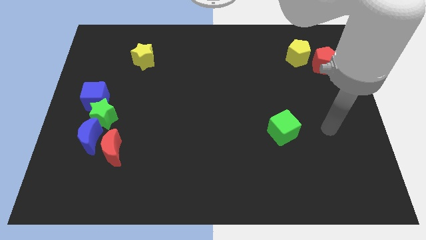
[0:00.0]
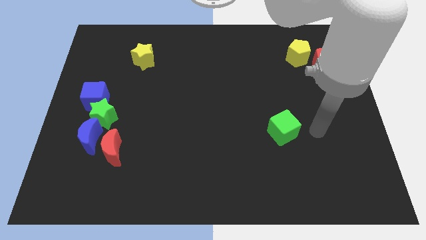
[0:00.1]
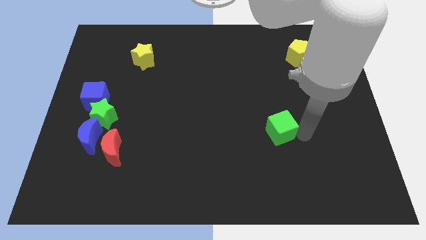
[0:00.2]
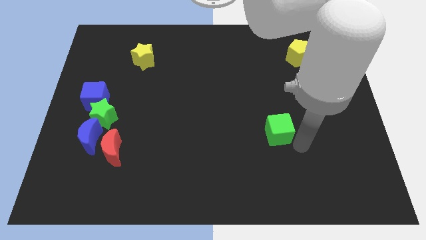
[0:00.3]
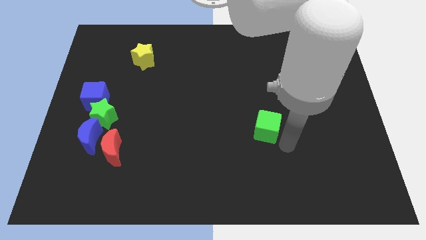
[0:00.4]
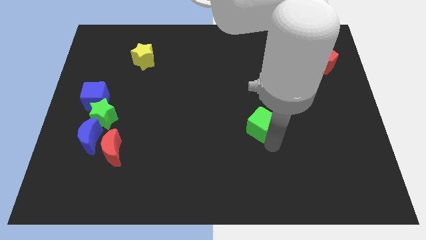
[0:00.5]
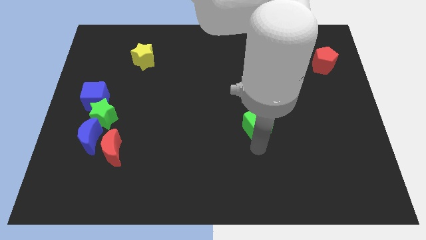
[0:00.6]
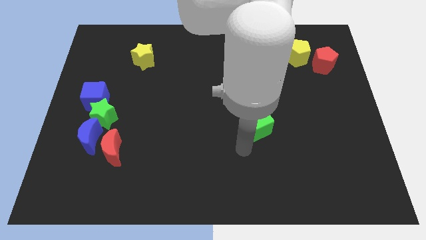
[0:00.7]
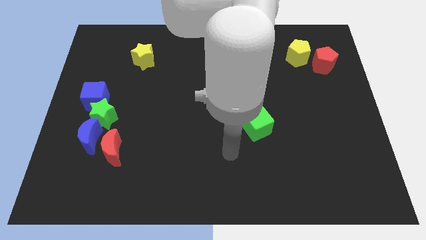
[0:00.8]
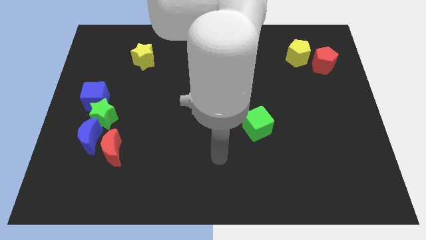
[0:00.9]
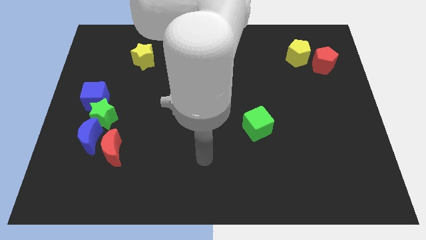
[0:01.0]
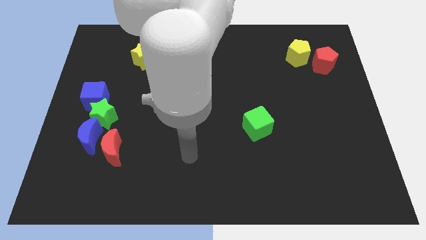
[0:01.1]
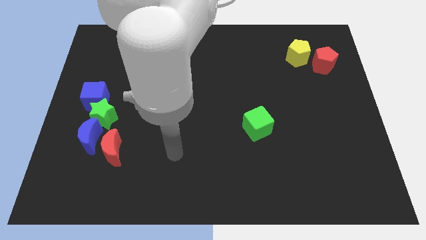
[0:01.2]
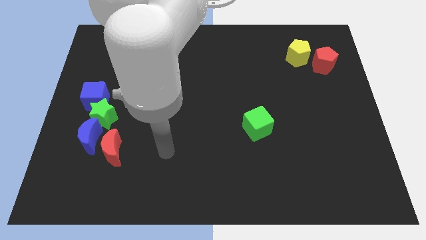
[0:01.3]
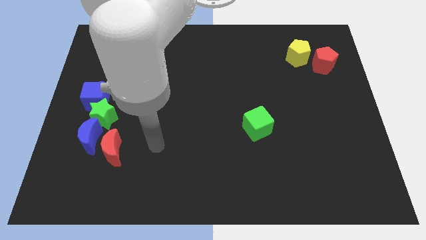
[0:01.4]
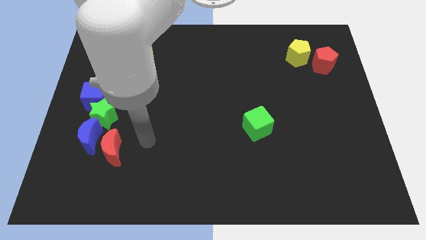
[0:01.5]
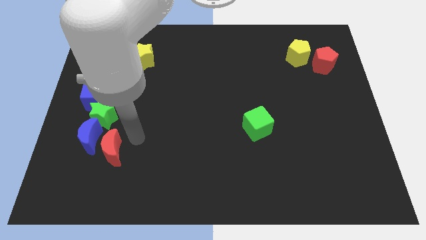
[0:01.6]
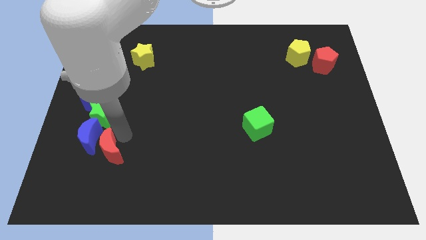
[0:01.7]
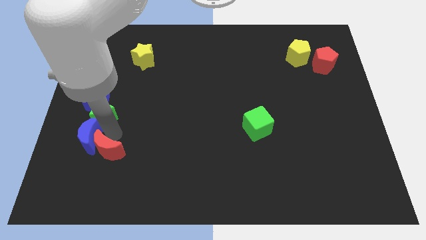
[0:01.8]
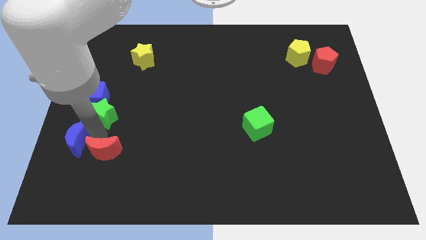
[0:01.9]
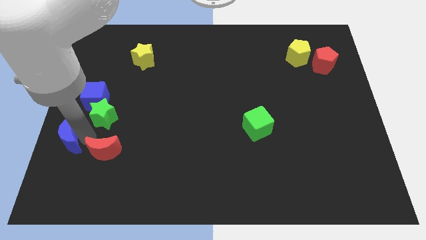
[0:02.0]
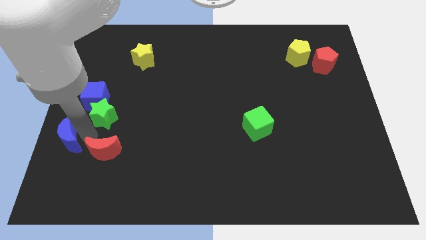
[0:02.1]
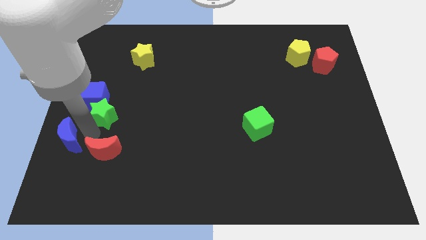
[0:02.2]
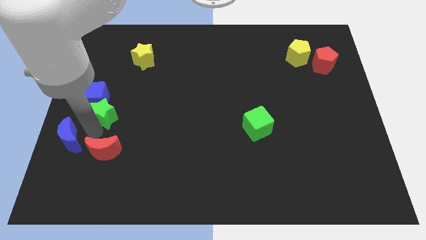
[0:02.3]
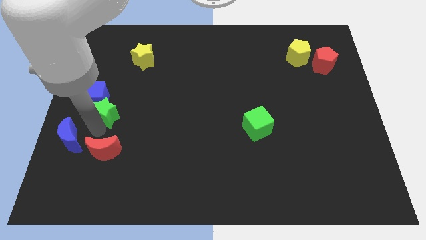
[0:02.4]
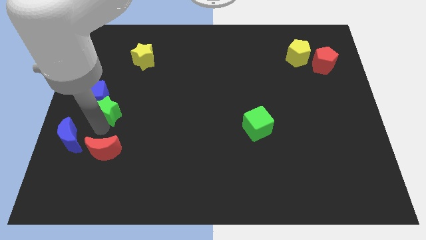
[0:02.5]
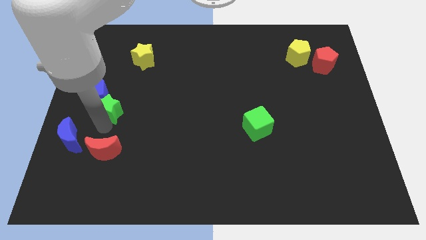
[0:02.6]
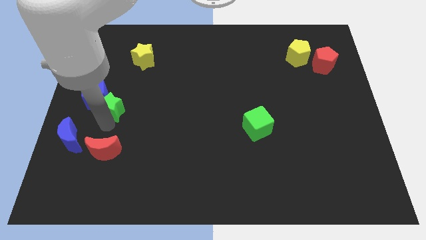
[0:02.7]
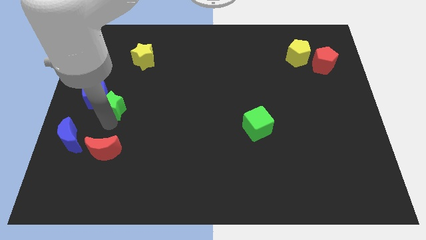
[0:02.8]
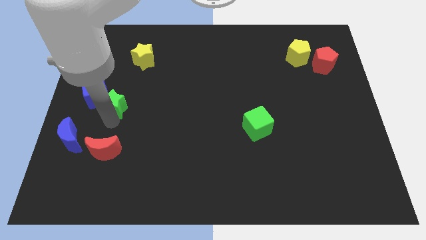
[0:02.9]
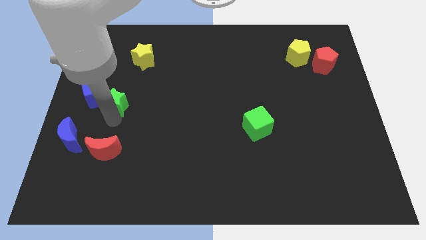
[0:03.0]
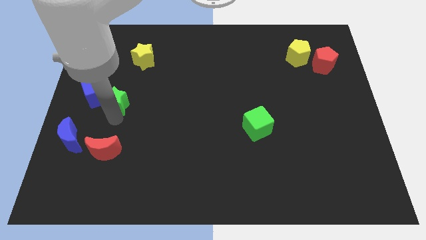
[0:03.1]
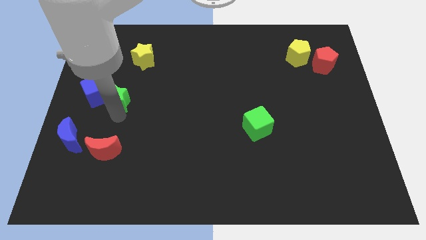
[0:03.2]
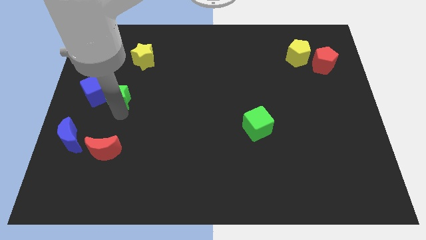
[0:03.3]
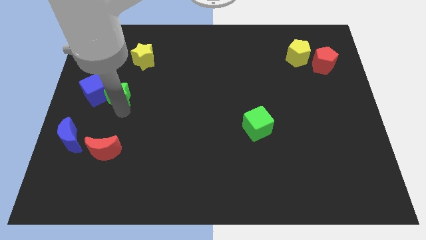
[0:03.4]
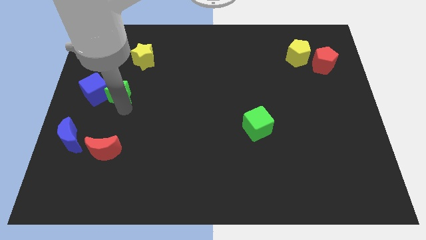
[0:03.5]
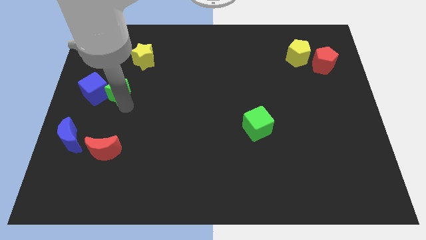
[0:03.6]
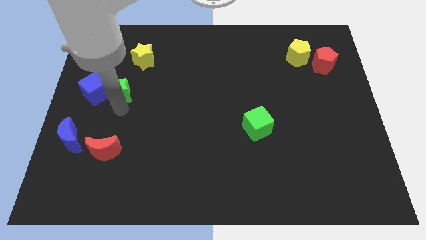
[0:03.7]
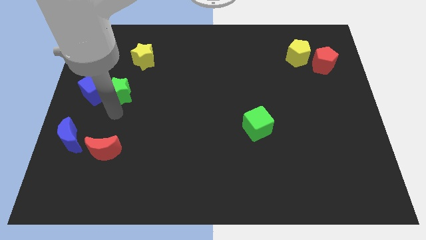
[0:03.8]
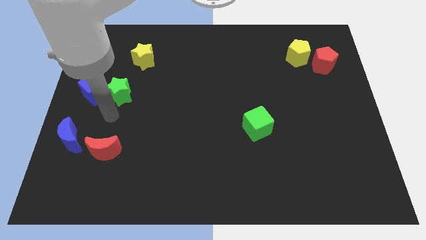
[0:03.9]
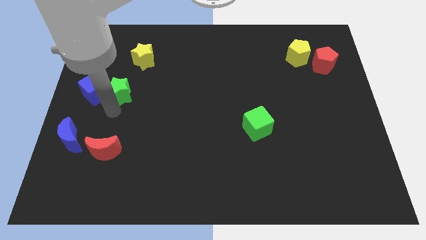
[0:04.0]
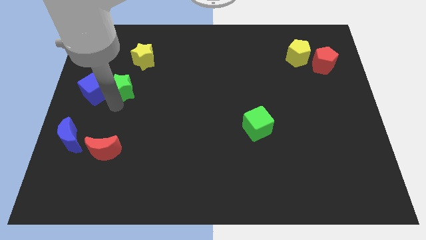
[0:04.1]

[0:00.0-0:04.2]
slightly move the green star up

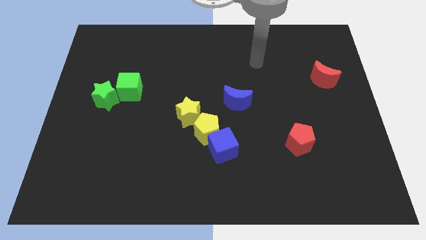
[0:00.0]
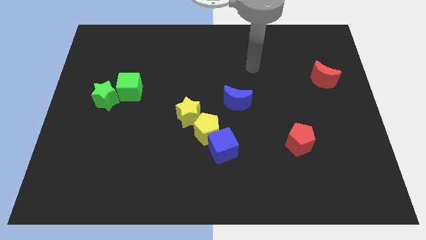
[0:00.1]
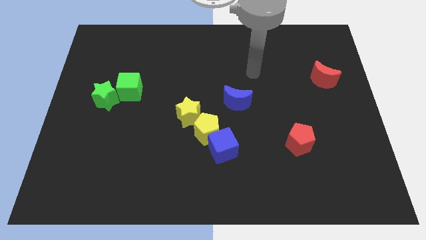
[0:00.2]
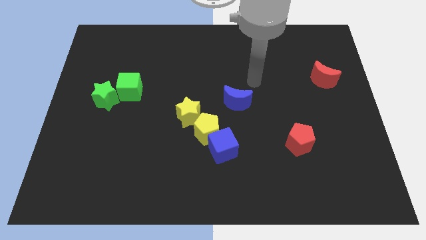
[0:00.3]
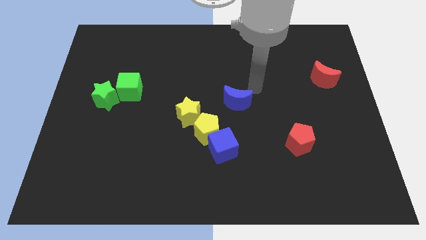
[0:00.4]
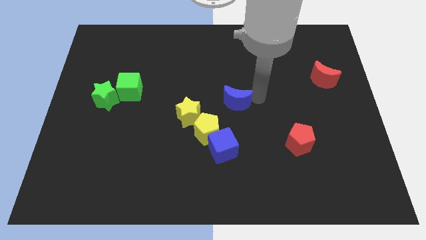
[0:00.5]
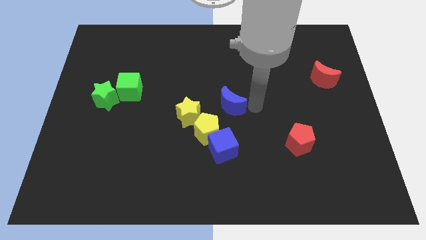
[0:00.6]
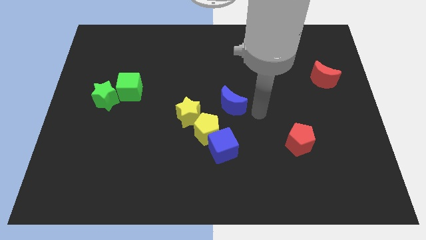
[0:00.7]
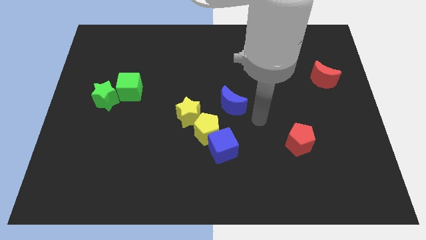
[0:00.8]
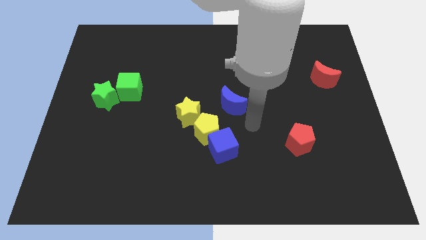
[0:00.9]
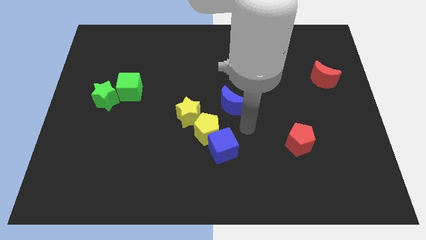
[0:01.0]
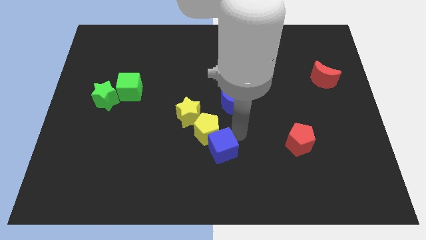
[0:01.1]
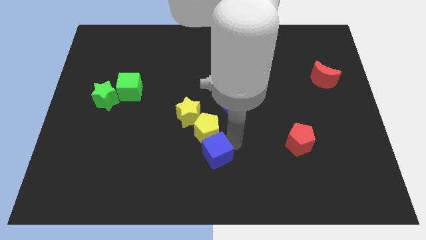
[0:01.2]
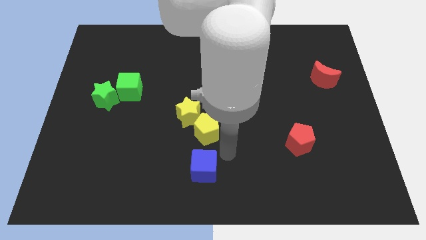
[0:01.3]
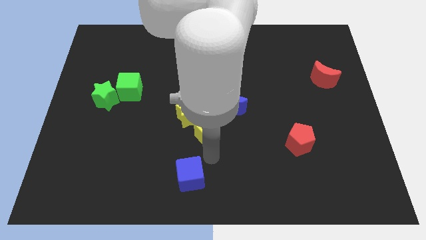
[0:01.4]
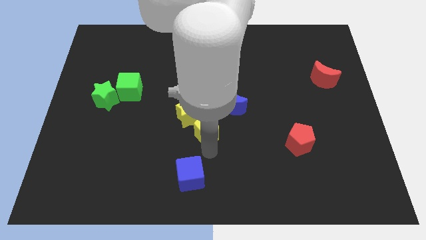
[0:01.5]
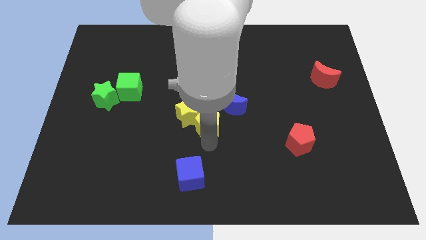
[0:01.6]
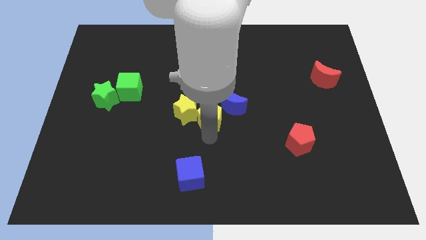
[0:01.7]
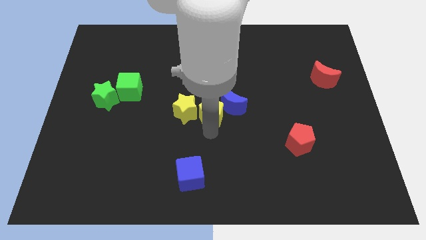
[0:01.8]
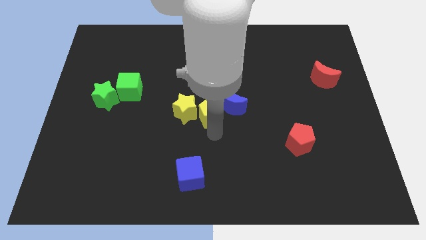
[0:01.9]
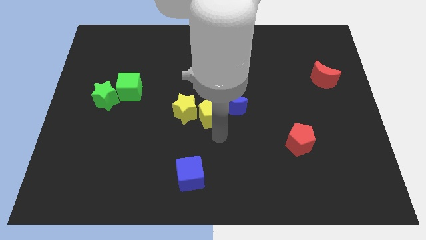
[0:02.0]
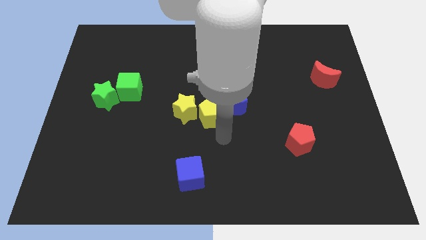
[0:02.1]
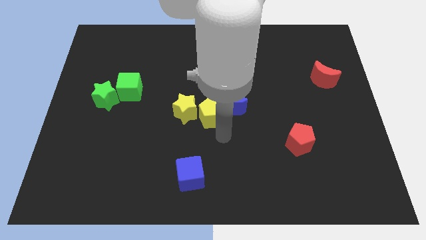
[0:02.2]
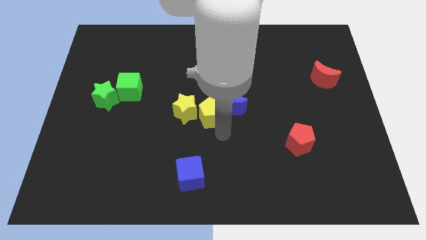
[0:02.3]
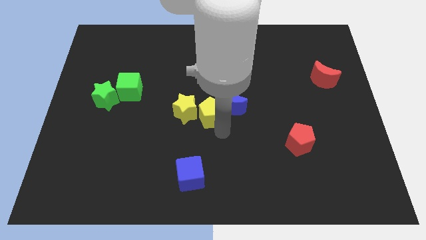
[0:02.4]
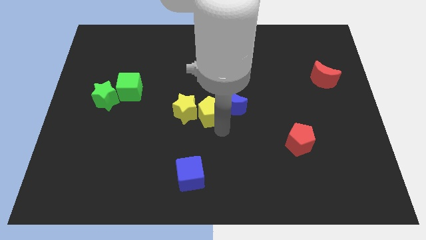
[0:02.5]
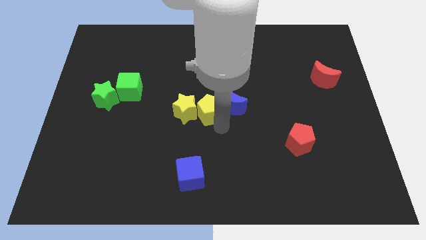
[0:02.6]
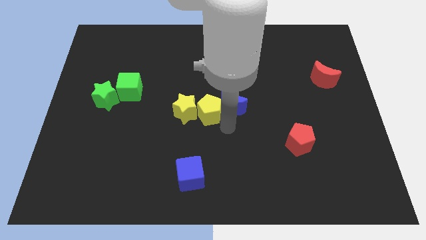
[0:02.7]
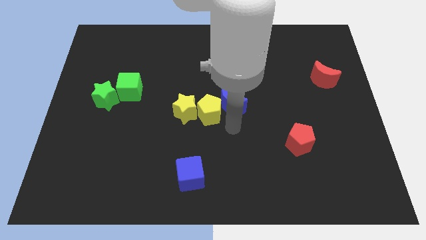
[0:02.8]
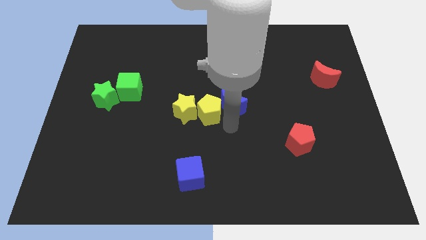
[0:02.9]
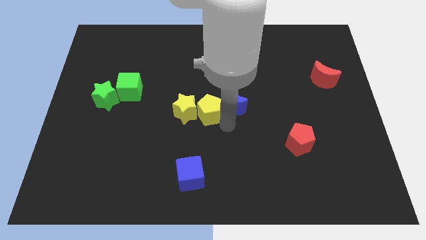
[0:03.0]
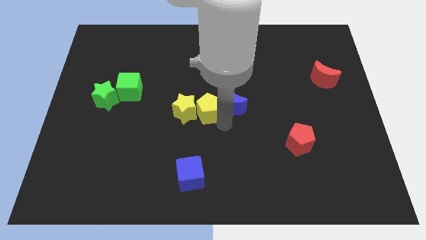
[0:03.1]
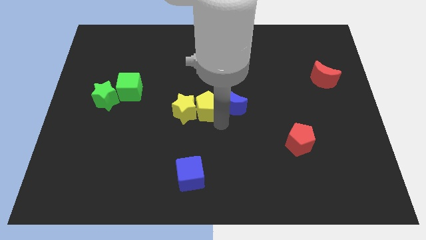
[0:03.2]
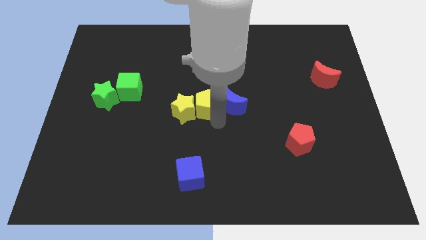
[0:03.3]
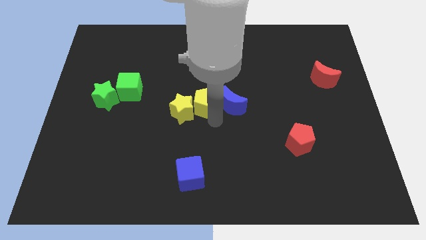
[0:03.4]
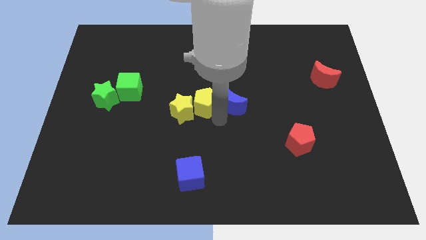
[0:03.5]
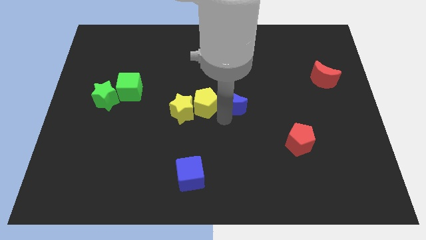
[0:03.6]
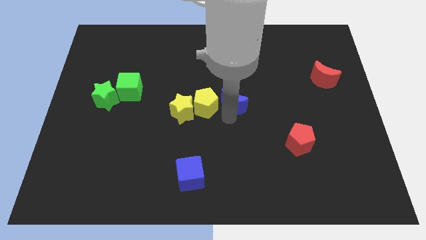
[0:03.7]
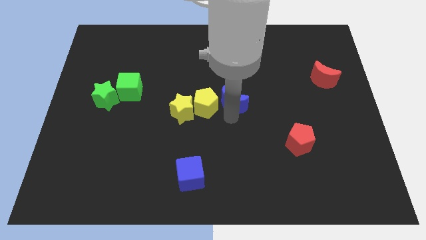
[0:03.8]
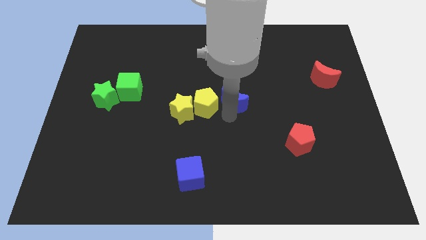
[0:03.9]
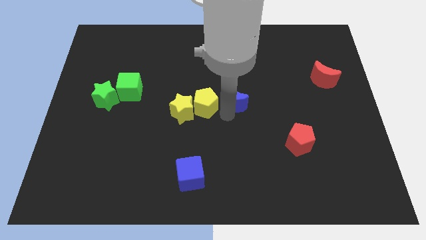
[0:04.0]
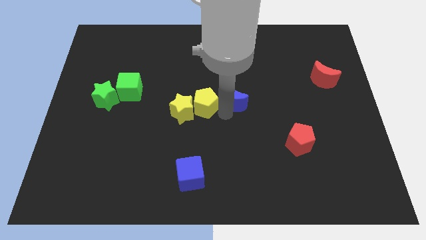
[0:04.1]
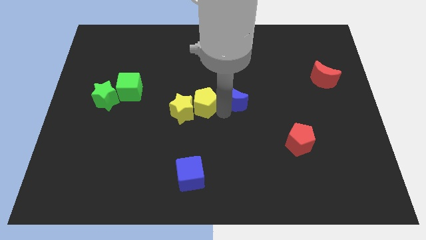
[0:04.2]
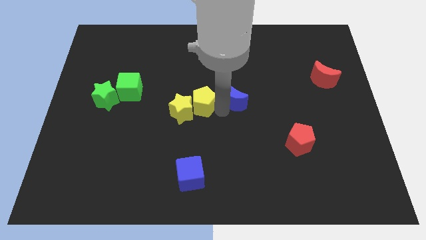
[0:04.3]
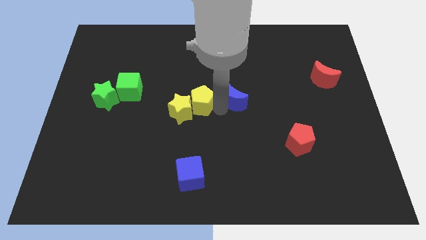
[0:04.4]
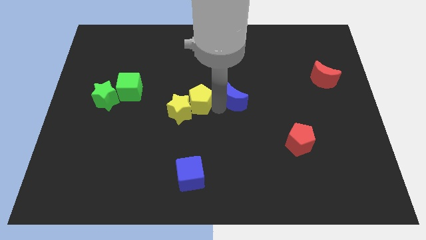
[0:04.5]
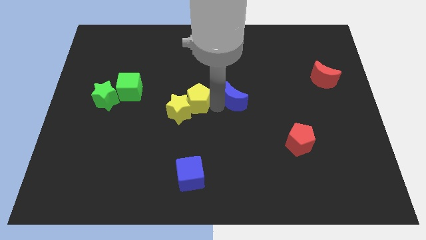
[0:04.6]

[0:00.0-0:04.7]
slide the yellow pentagon a little bit diagonally upwards and left
